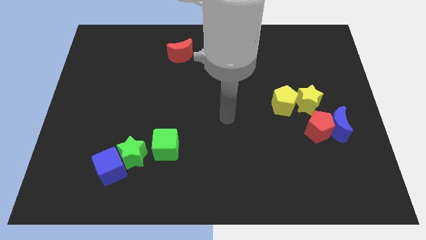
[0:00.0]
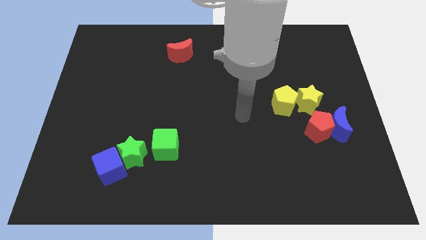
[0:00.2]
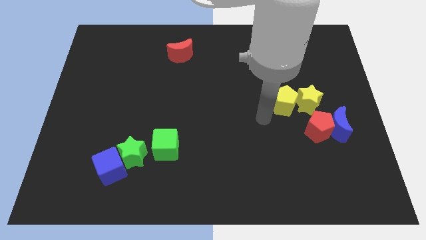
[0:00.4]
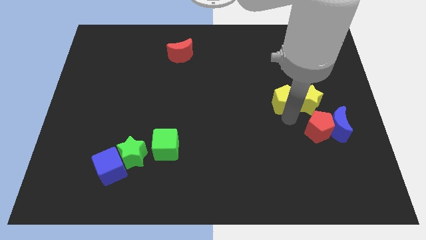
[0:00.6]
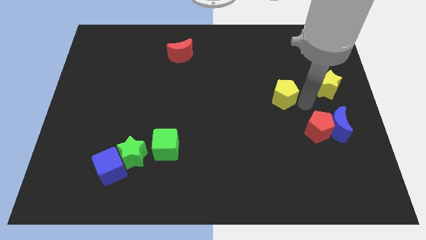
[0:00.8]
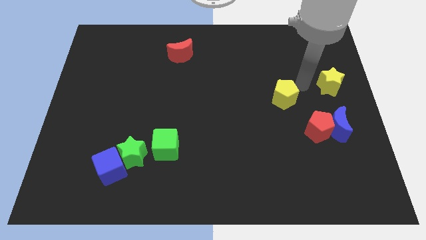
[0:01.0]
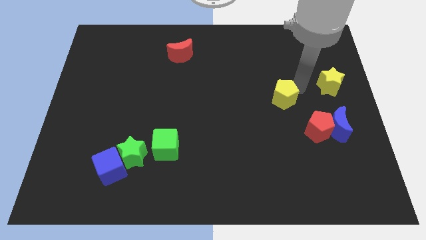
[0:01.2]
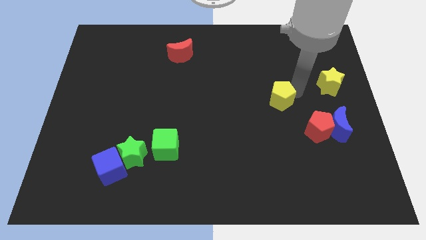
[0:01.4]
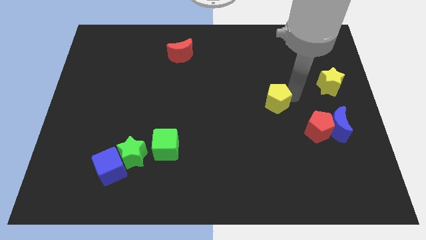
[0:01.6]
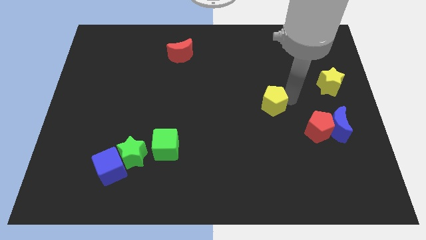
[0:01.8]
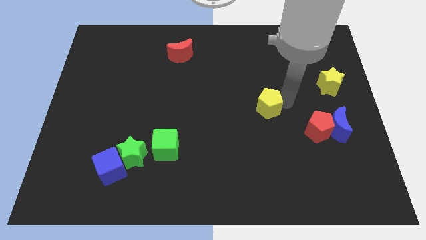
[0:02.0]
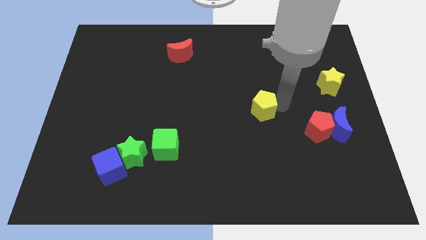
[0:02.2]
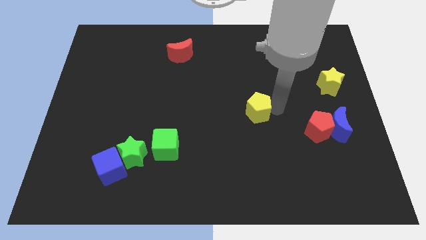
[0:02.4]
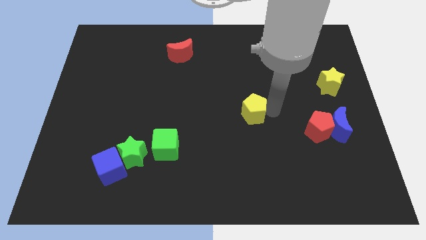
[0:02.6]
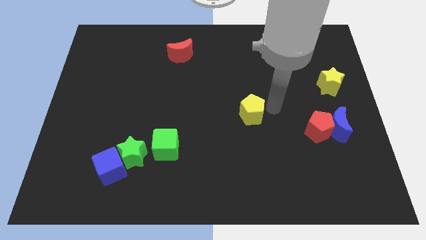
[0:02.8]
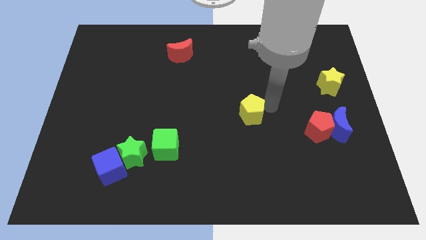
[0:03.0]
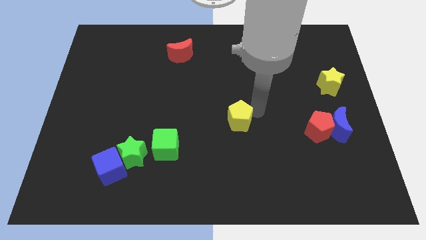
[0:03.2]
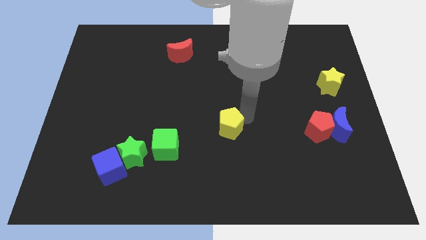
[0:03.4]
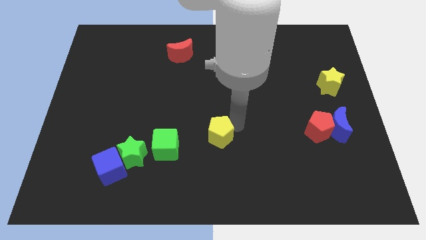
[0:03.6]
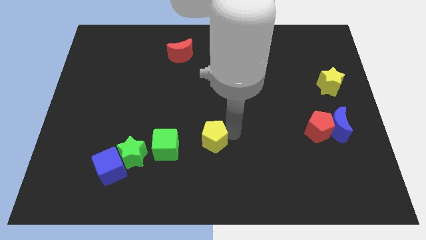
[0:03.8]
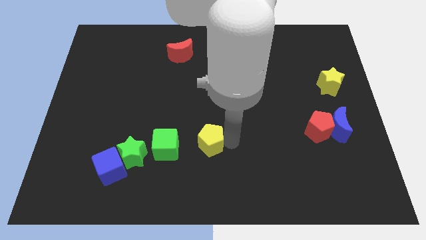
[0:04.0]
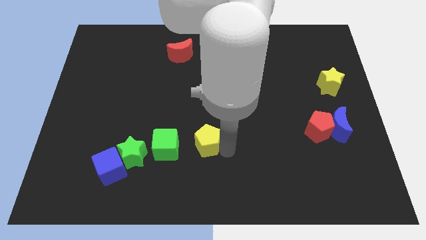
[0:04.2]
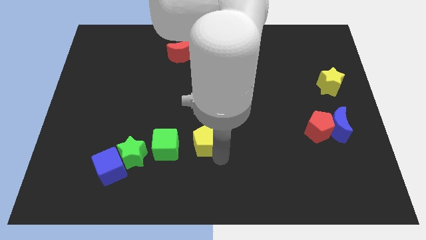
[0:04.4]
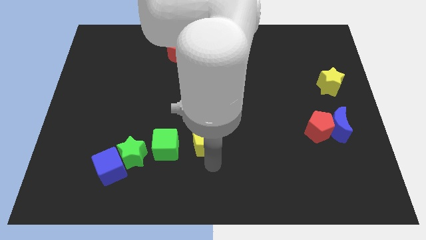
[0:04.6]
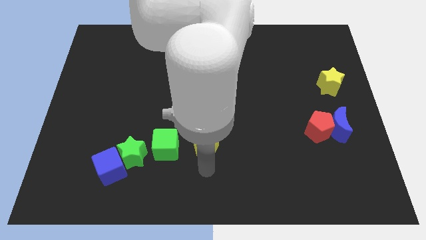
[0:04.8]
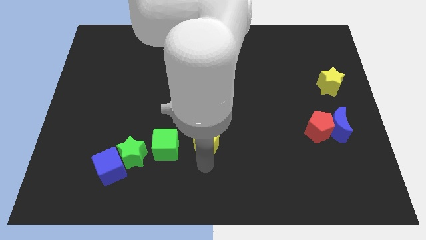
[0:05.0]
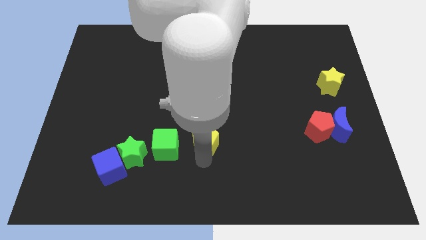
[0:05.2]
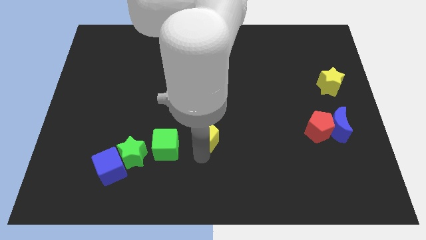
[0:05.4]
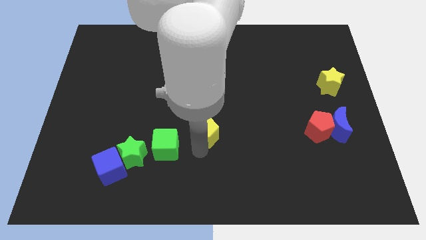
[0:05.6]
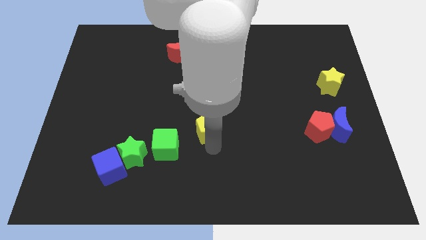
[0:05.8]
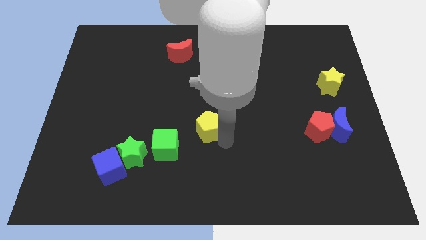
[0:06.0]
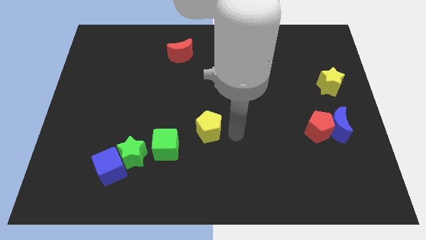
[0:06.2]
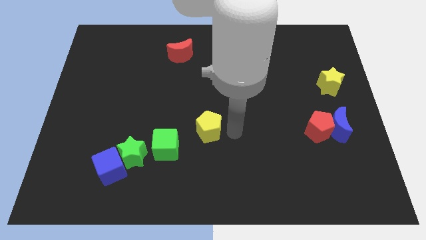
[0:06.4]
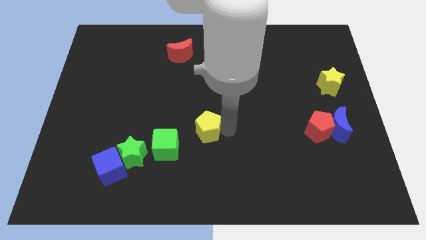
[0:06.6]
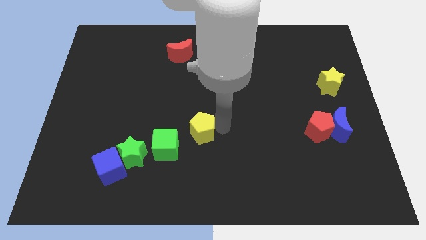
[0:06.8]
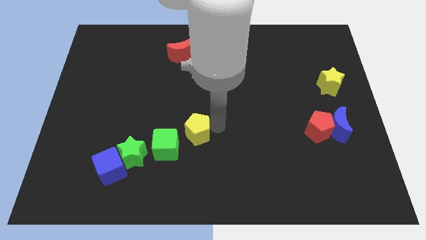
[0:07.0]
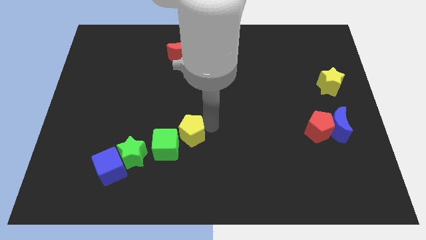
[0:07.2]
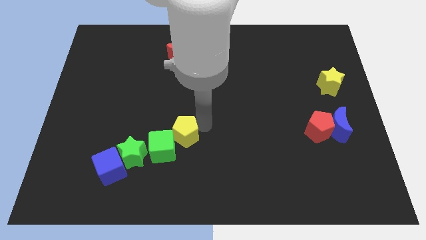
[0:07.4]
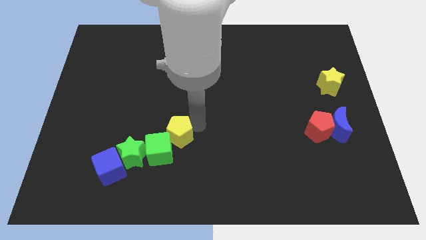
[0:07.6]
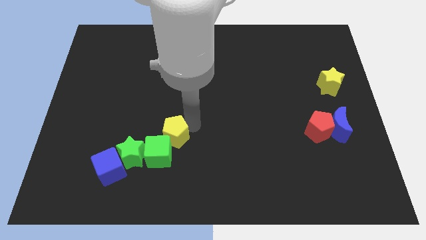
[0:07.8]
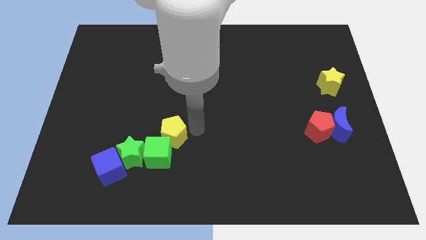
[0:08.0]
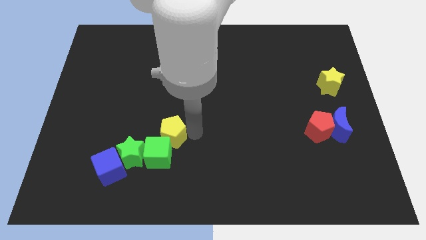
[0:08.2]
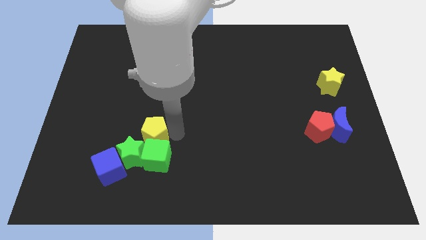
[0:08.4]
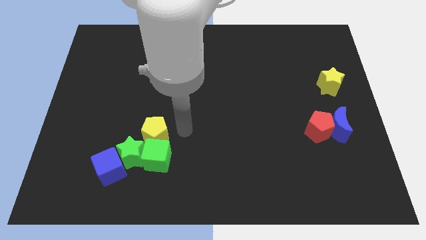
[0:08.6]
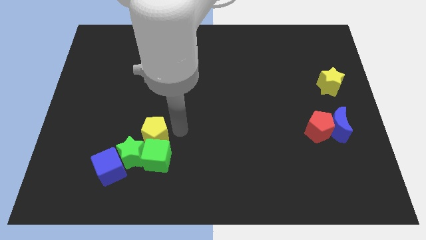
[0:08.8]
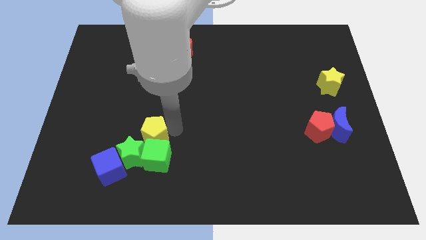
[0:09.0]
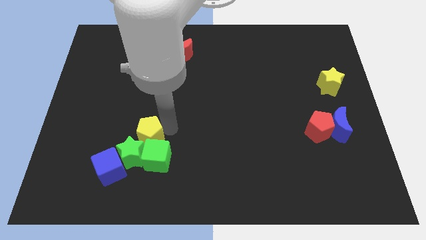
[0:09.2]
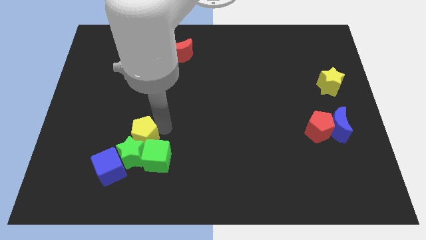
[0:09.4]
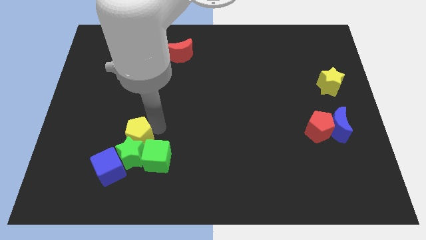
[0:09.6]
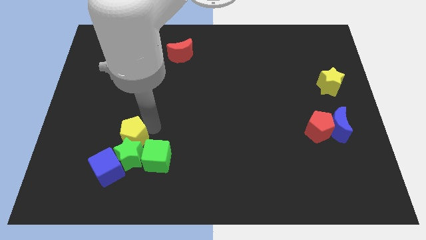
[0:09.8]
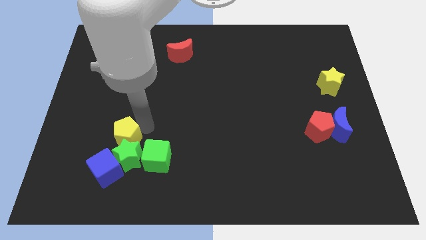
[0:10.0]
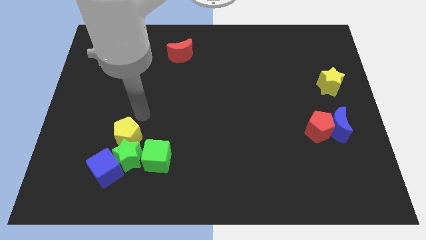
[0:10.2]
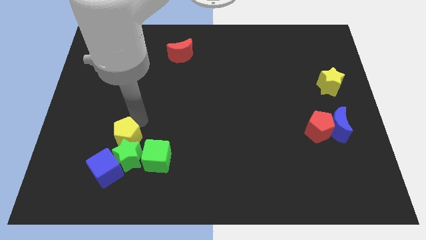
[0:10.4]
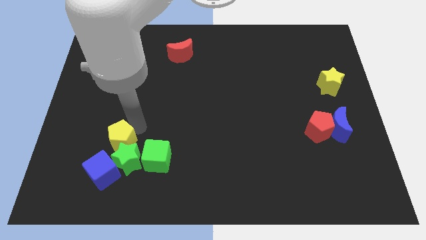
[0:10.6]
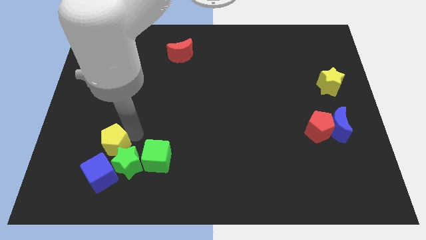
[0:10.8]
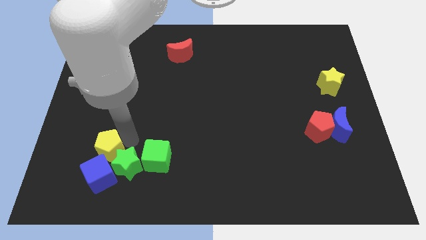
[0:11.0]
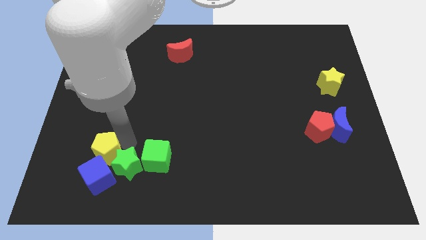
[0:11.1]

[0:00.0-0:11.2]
slide the yellow pentagon next to the blue cube

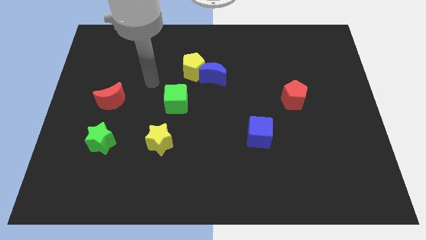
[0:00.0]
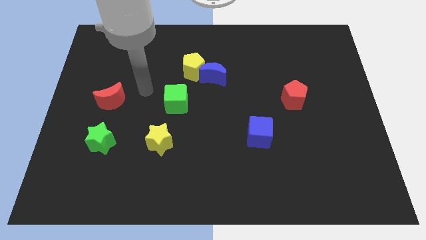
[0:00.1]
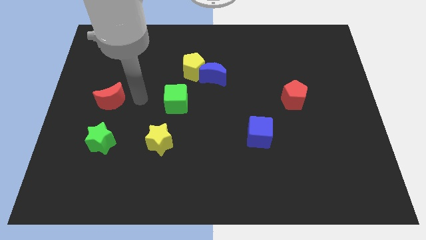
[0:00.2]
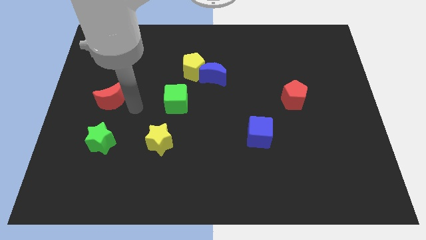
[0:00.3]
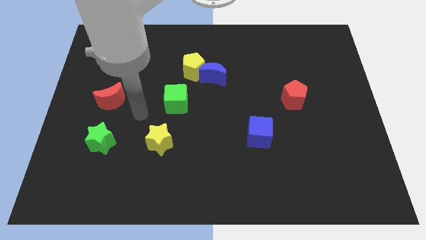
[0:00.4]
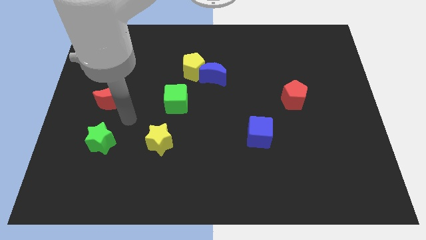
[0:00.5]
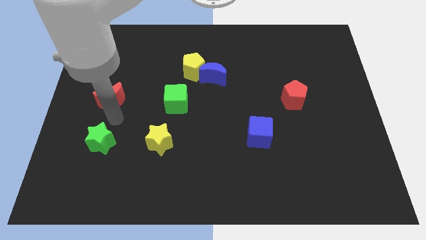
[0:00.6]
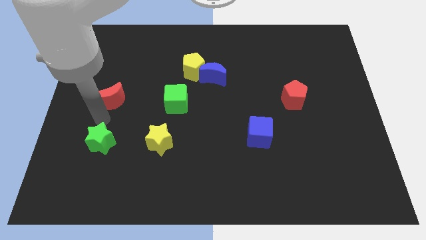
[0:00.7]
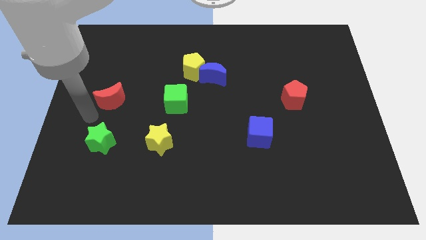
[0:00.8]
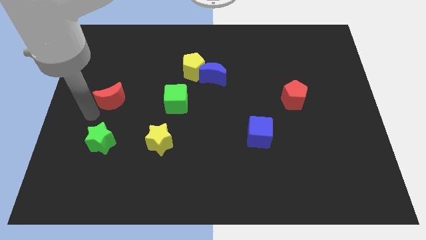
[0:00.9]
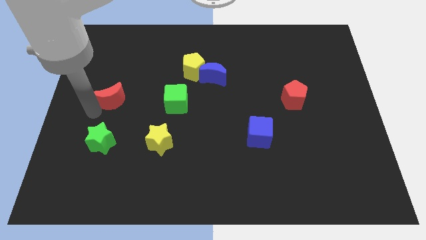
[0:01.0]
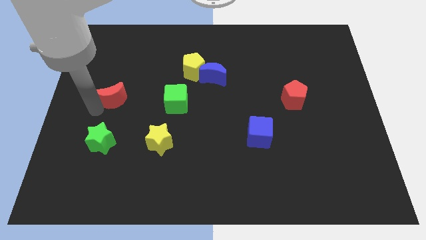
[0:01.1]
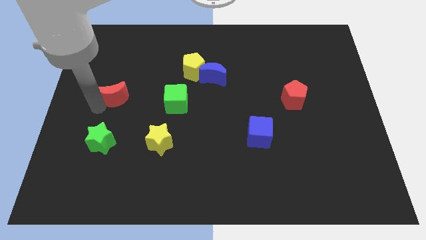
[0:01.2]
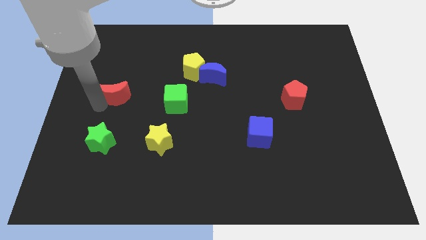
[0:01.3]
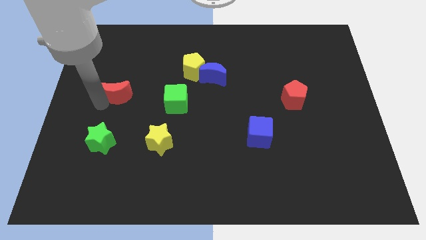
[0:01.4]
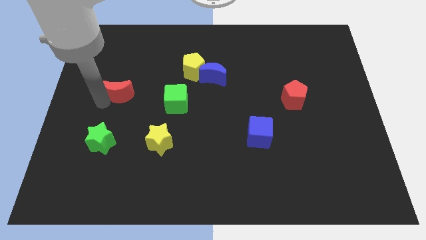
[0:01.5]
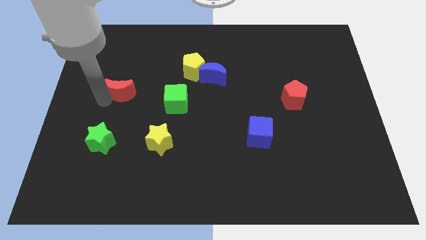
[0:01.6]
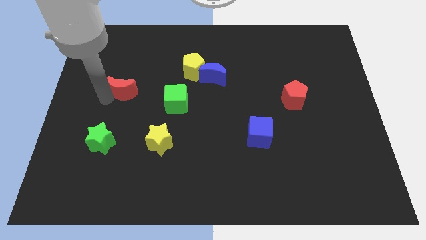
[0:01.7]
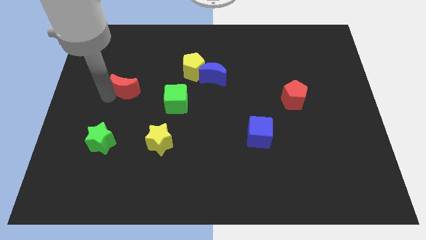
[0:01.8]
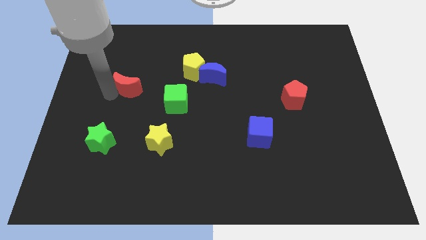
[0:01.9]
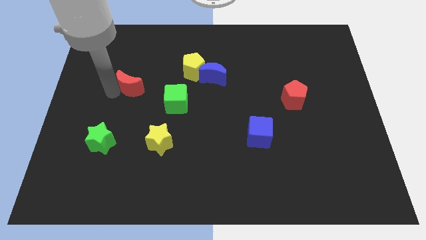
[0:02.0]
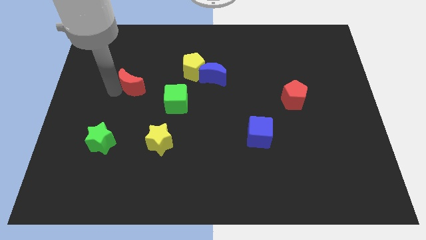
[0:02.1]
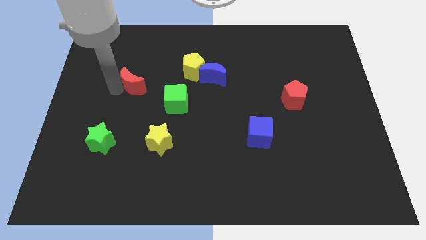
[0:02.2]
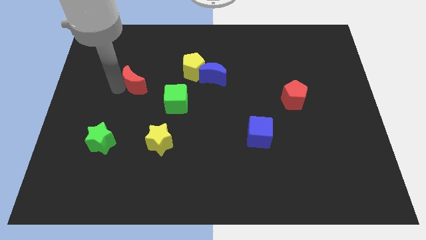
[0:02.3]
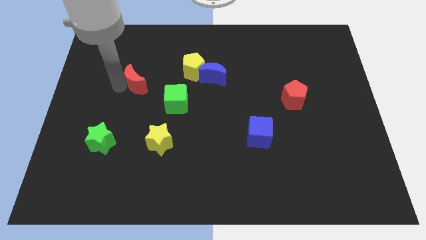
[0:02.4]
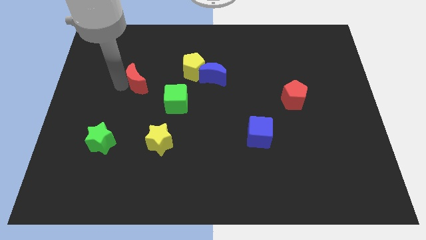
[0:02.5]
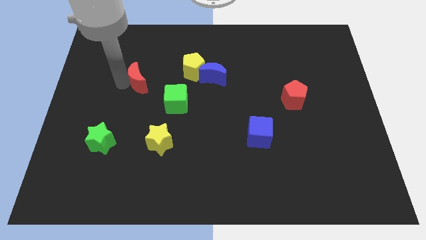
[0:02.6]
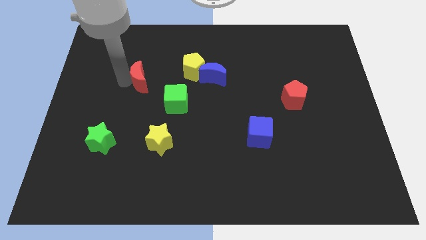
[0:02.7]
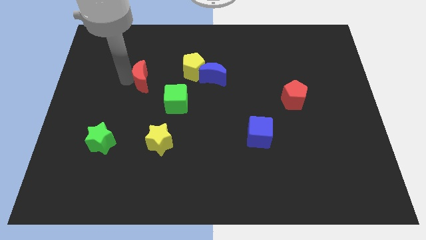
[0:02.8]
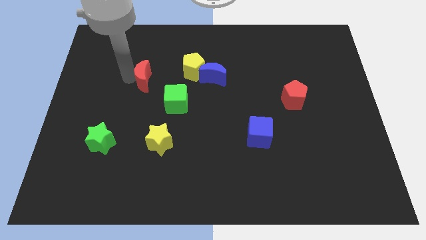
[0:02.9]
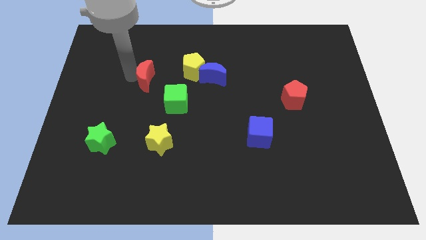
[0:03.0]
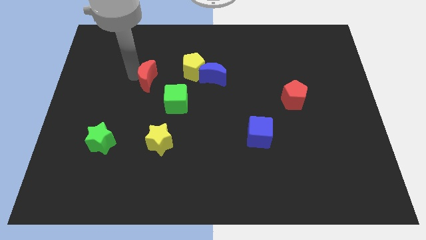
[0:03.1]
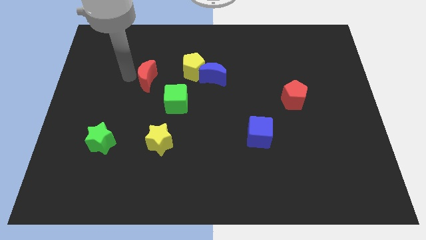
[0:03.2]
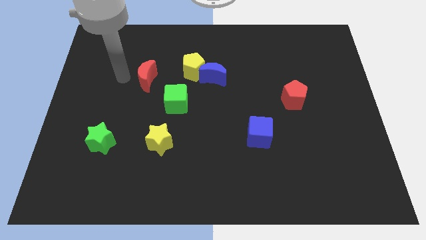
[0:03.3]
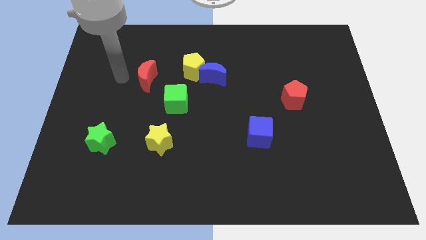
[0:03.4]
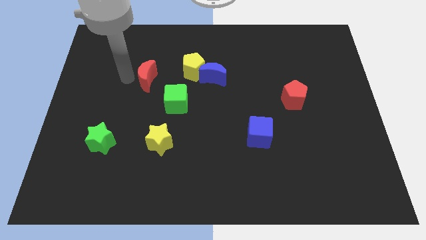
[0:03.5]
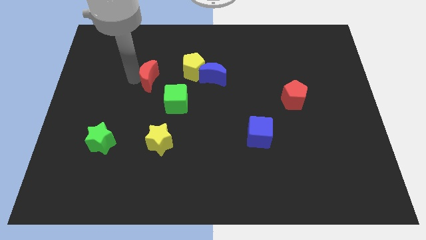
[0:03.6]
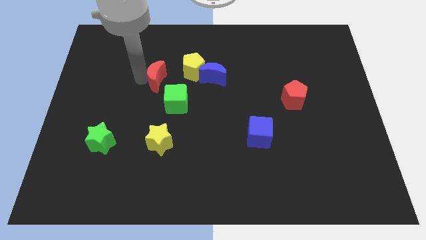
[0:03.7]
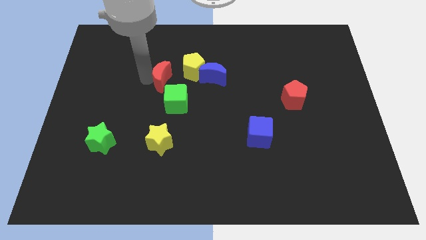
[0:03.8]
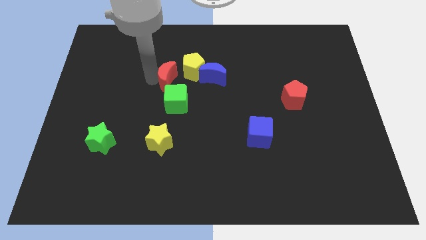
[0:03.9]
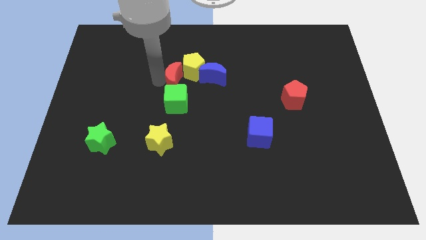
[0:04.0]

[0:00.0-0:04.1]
put the red moon close to the yellow pentagon
